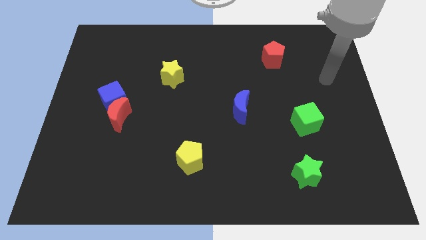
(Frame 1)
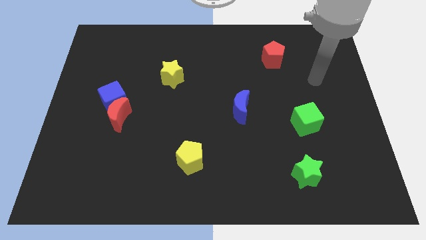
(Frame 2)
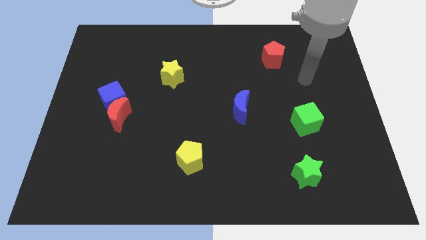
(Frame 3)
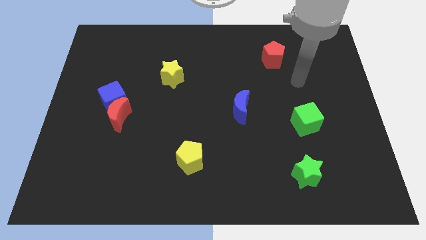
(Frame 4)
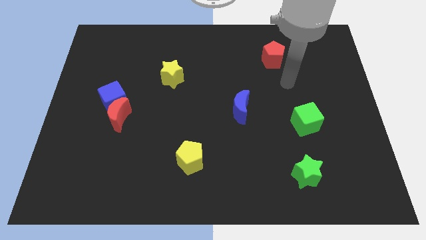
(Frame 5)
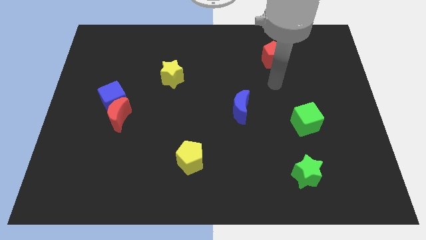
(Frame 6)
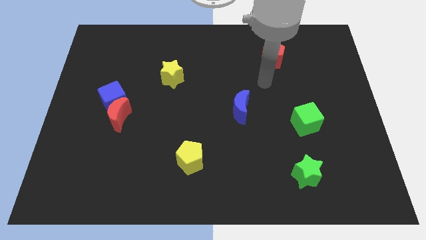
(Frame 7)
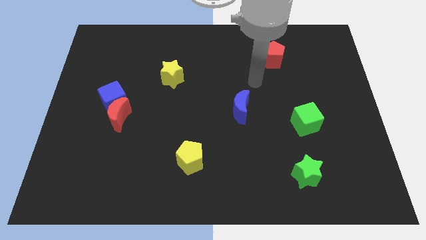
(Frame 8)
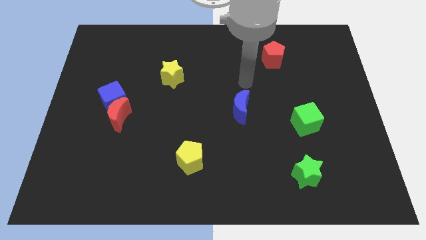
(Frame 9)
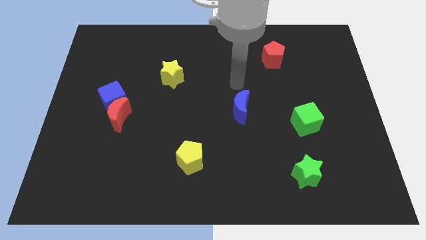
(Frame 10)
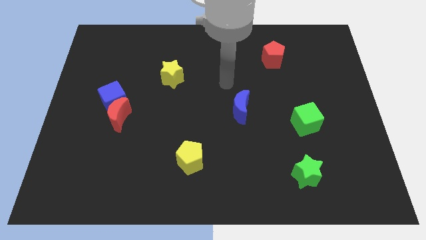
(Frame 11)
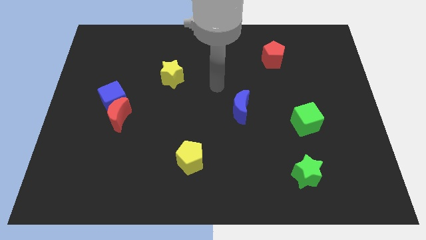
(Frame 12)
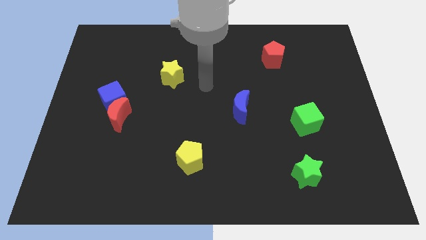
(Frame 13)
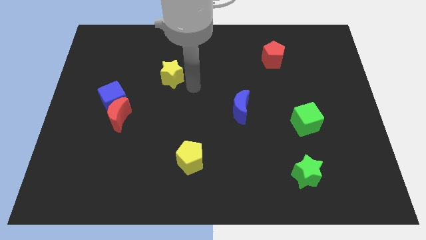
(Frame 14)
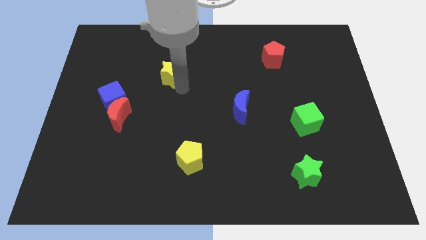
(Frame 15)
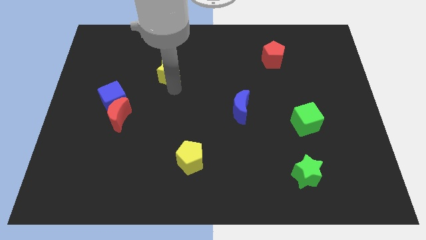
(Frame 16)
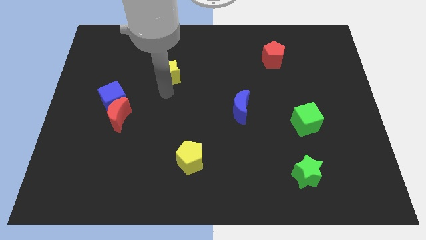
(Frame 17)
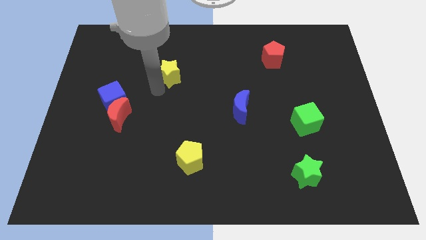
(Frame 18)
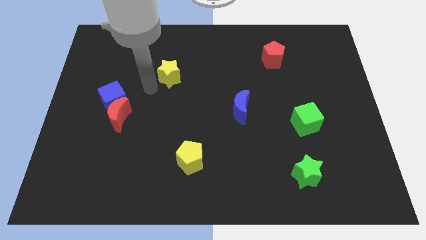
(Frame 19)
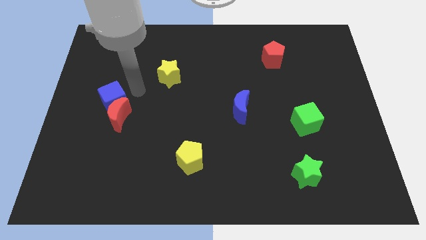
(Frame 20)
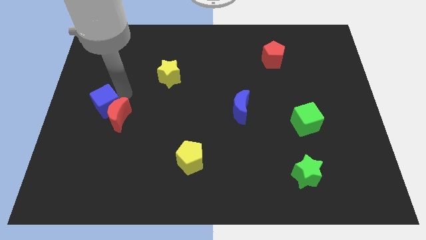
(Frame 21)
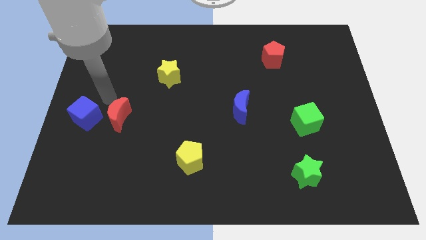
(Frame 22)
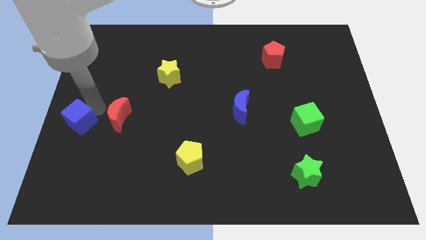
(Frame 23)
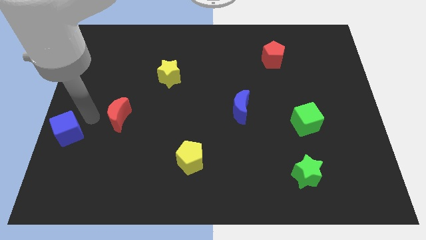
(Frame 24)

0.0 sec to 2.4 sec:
move the red moon away from the blue cube

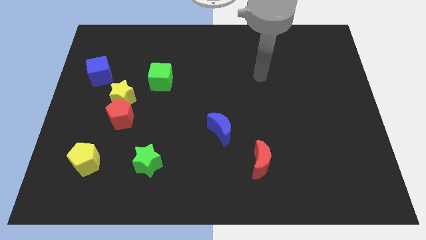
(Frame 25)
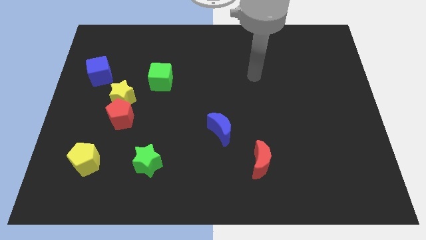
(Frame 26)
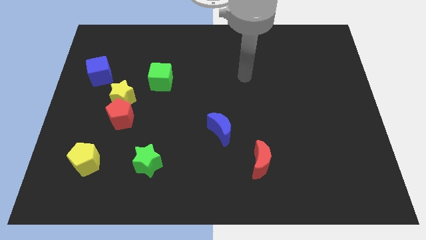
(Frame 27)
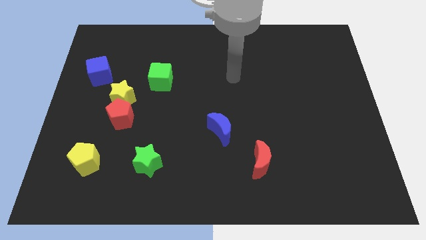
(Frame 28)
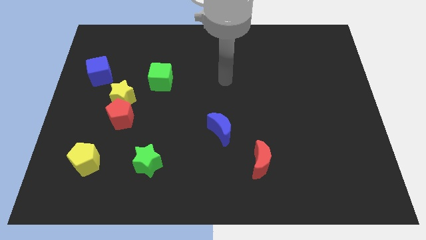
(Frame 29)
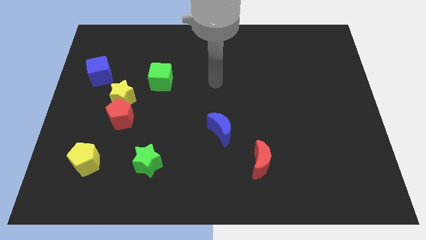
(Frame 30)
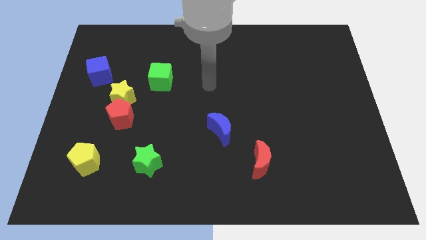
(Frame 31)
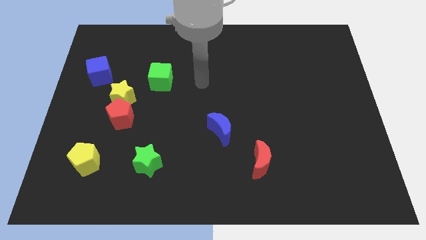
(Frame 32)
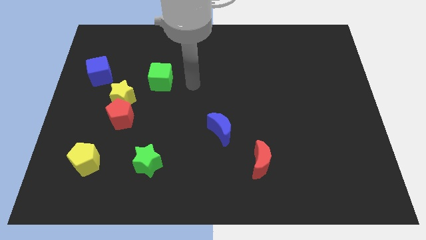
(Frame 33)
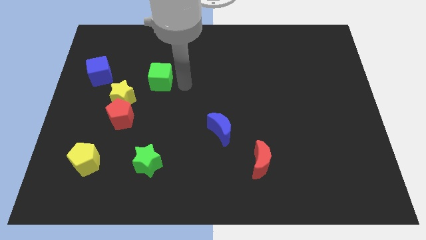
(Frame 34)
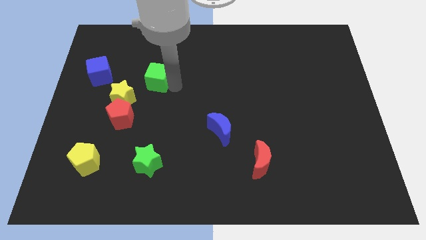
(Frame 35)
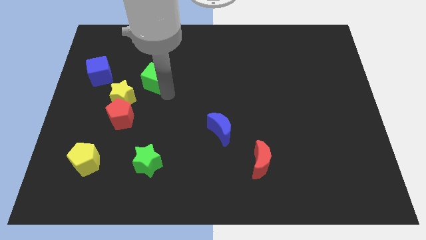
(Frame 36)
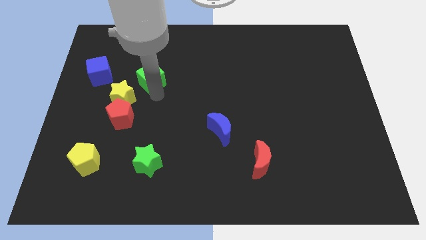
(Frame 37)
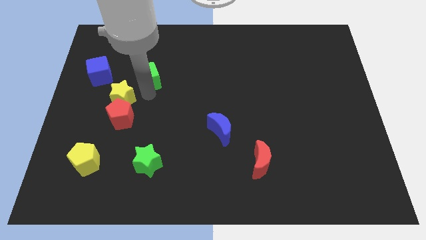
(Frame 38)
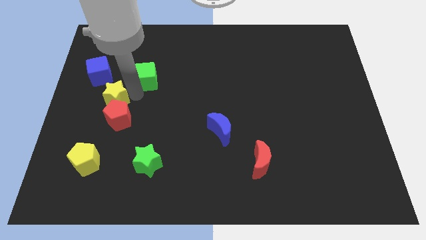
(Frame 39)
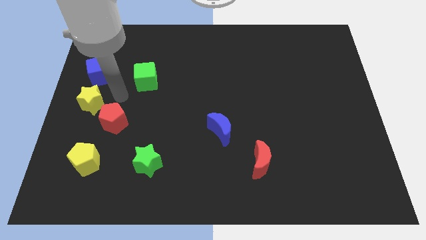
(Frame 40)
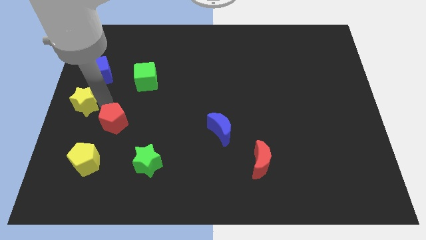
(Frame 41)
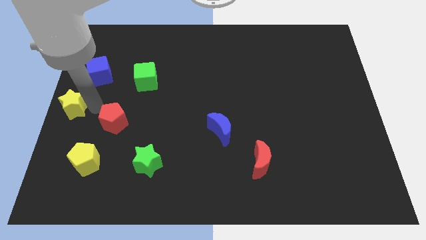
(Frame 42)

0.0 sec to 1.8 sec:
move the red pentagon away from the yellow star

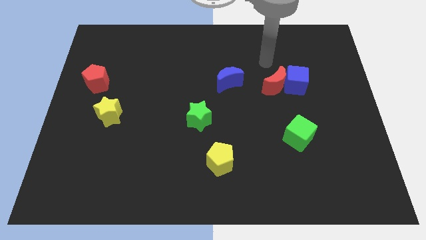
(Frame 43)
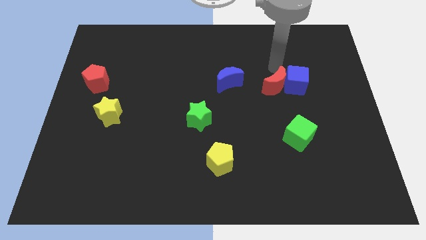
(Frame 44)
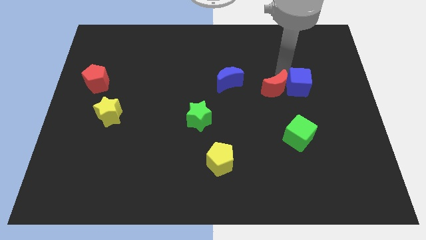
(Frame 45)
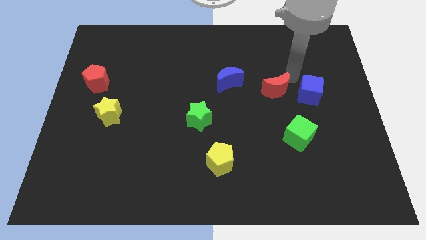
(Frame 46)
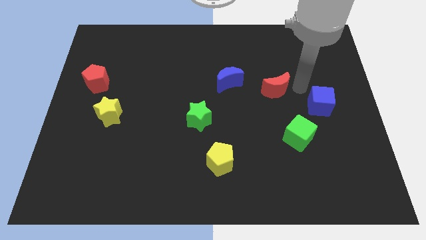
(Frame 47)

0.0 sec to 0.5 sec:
separate the red moon from the blue cube

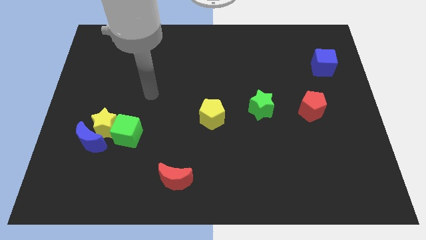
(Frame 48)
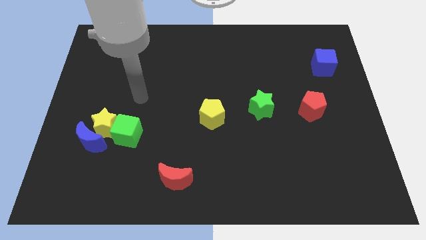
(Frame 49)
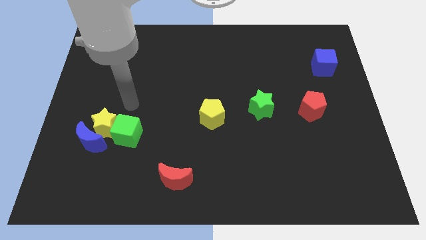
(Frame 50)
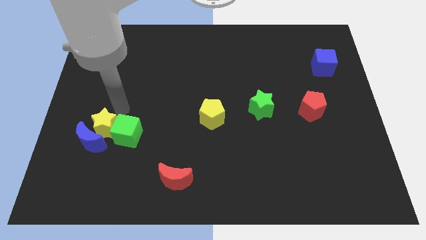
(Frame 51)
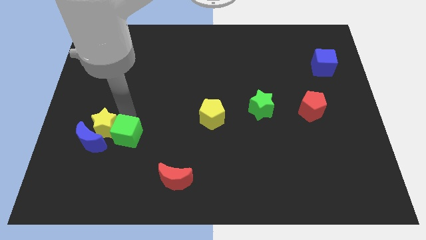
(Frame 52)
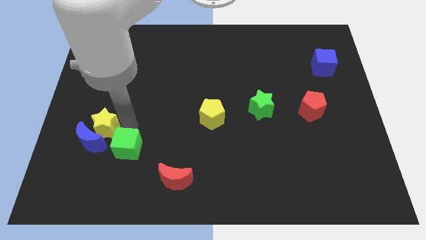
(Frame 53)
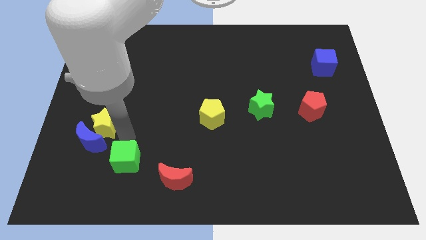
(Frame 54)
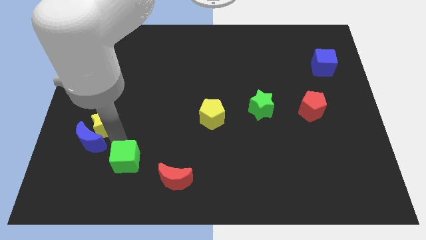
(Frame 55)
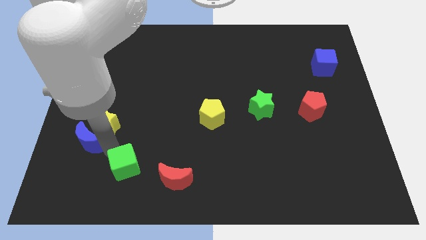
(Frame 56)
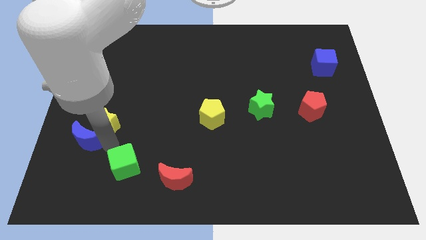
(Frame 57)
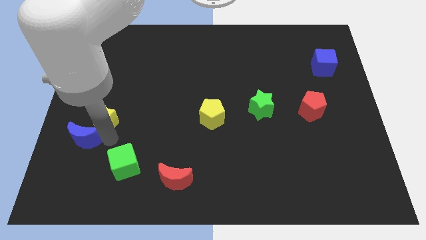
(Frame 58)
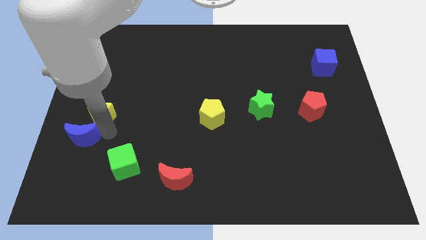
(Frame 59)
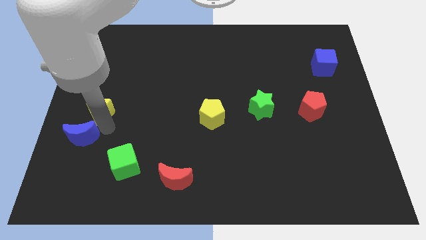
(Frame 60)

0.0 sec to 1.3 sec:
separate the yellow star from the blue moon and green cube

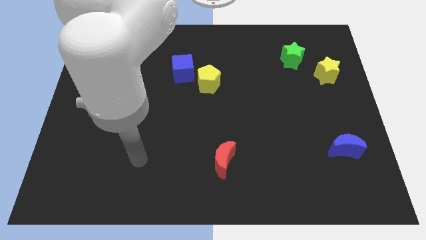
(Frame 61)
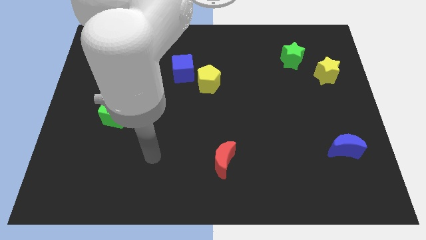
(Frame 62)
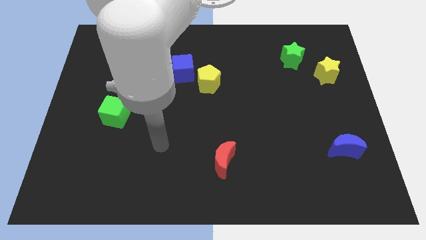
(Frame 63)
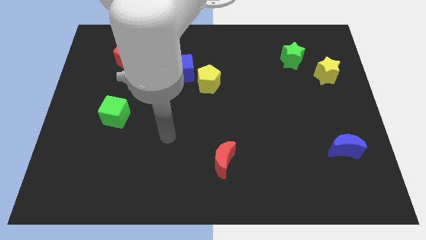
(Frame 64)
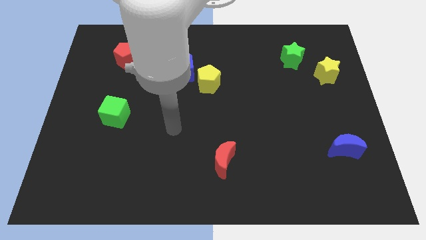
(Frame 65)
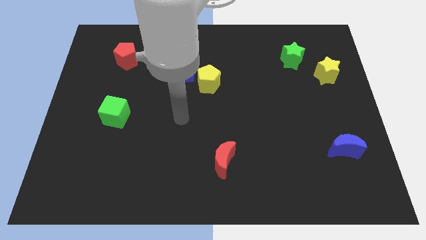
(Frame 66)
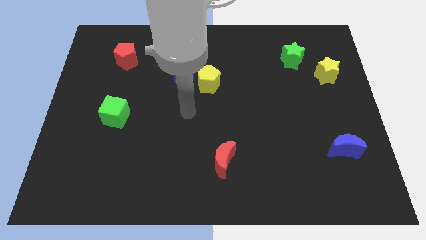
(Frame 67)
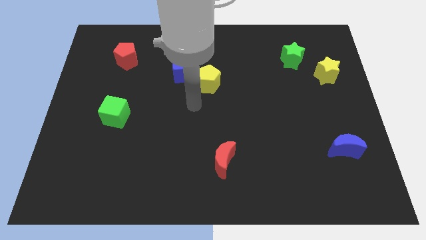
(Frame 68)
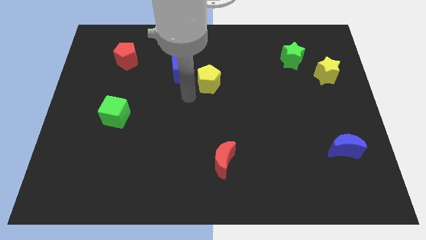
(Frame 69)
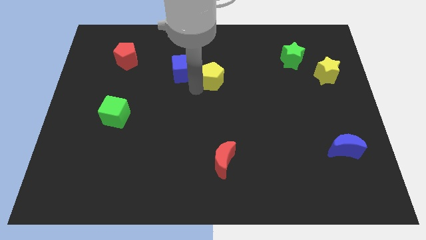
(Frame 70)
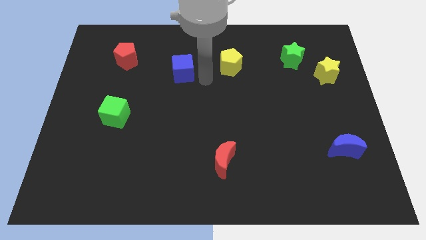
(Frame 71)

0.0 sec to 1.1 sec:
pull the blue cube apart from the yellow pentagon

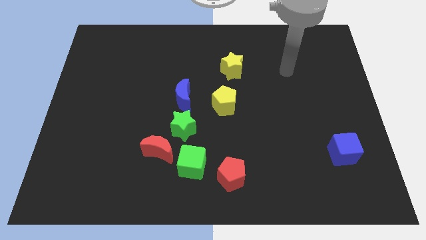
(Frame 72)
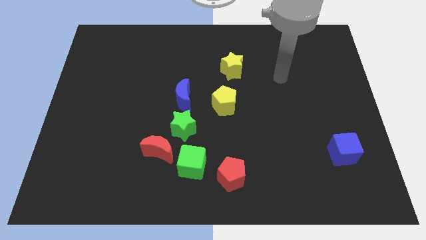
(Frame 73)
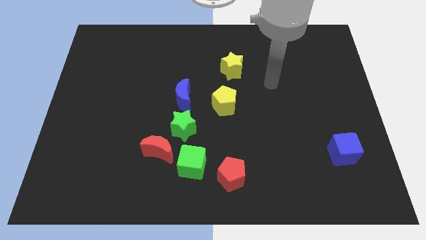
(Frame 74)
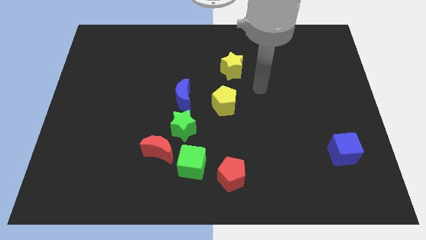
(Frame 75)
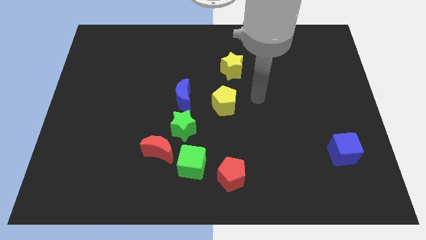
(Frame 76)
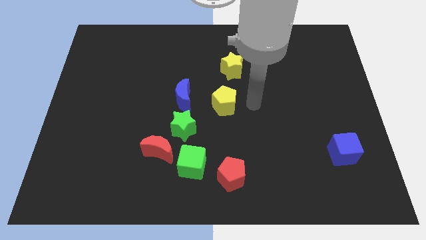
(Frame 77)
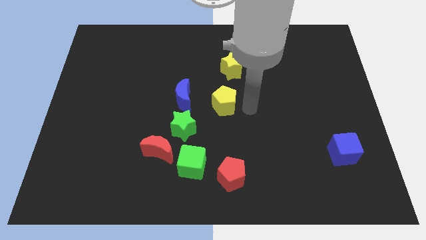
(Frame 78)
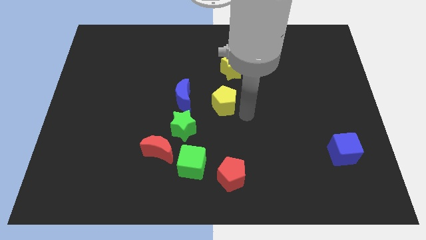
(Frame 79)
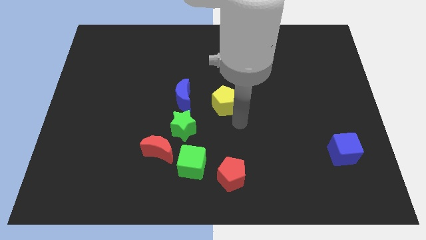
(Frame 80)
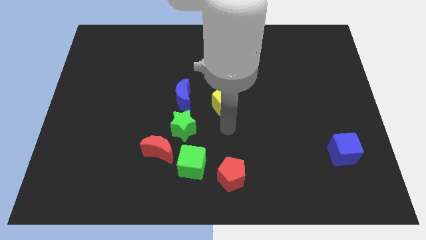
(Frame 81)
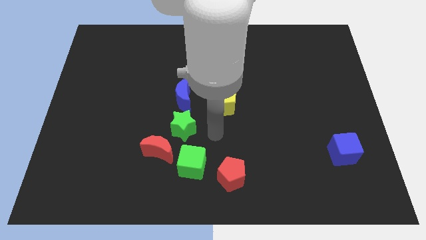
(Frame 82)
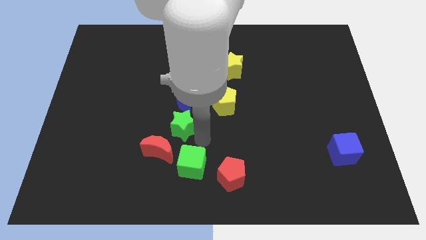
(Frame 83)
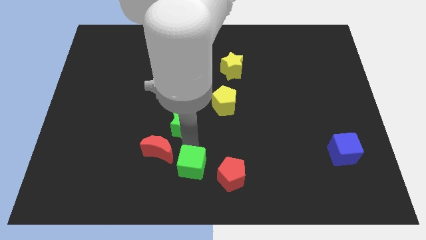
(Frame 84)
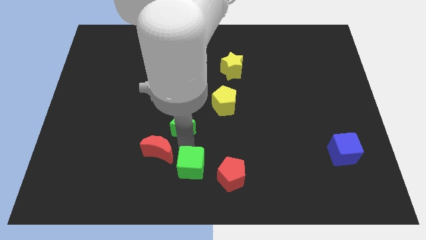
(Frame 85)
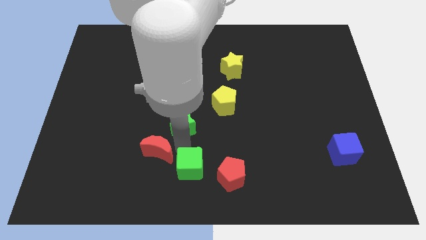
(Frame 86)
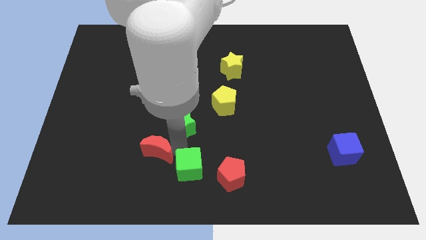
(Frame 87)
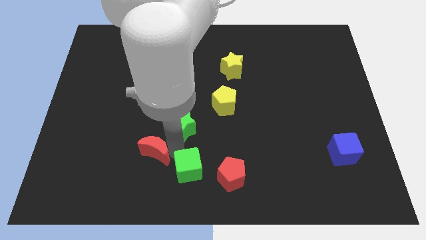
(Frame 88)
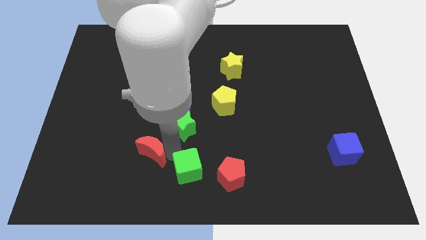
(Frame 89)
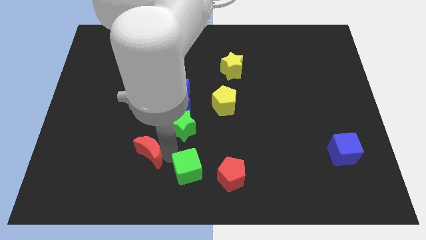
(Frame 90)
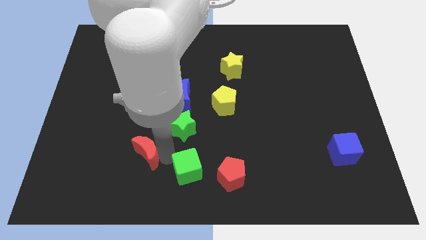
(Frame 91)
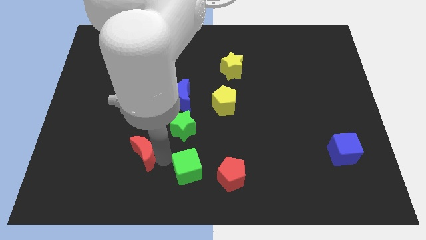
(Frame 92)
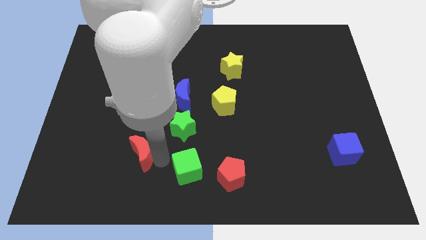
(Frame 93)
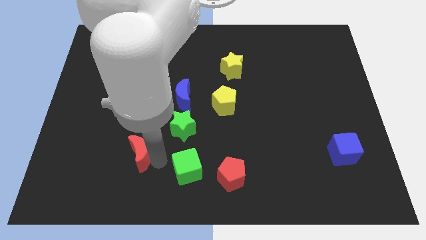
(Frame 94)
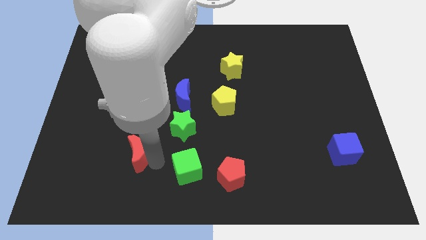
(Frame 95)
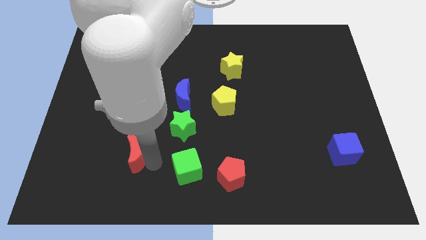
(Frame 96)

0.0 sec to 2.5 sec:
separate the red moon from the green star and green cube
